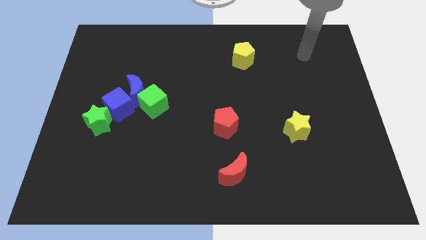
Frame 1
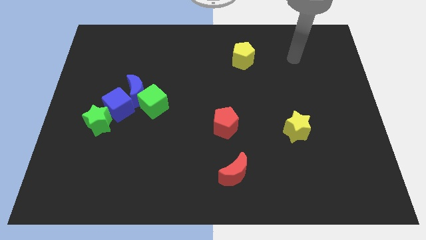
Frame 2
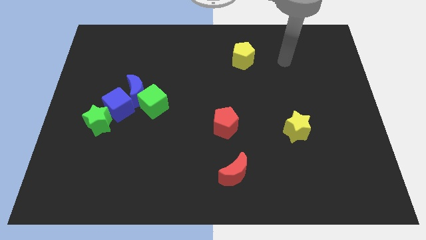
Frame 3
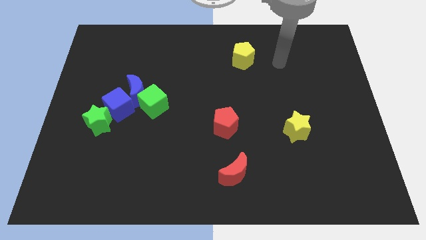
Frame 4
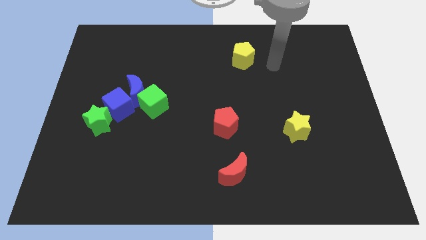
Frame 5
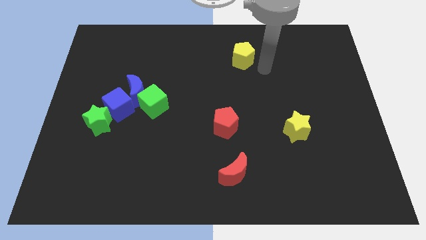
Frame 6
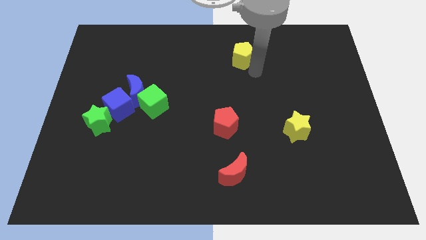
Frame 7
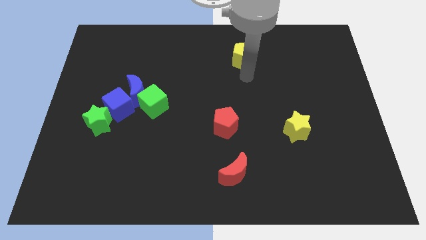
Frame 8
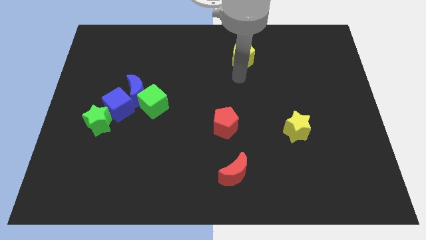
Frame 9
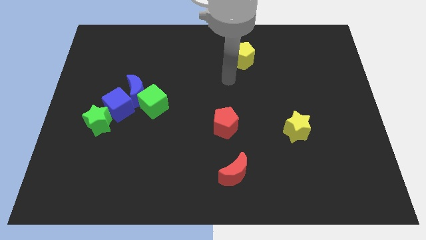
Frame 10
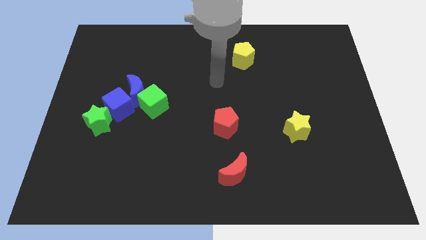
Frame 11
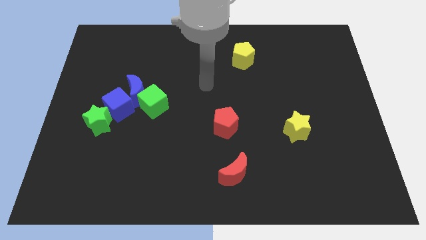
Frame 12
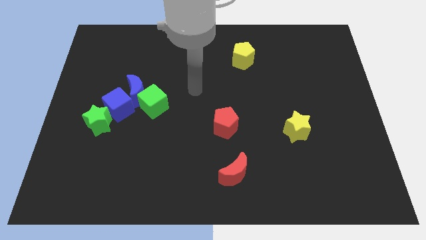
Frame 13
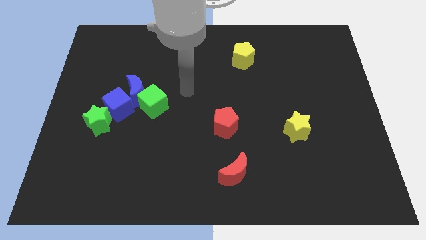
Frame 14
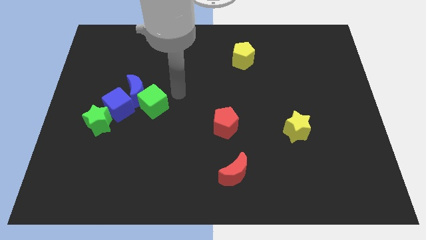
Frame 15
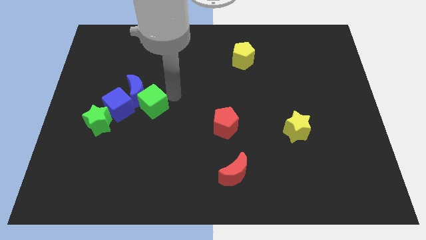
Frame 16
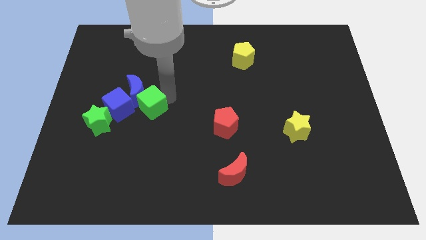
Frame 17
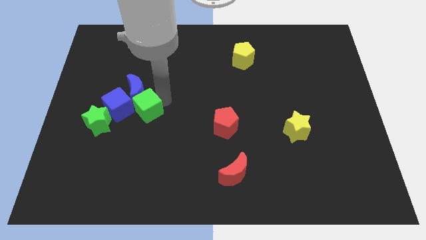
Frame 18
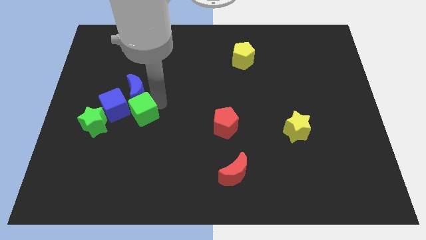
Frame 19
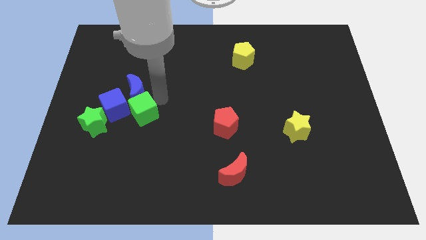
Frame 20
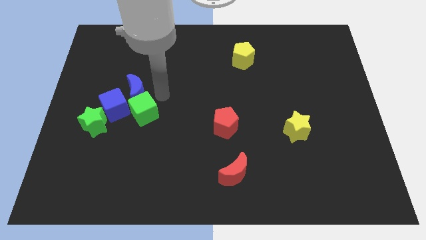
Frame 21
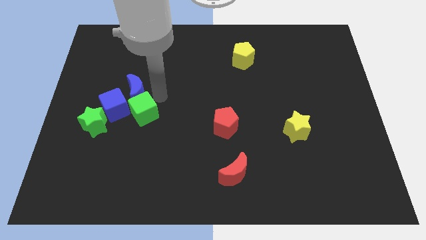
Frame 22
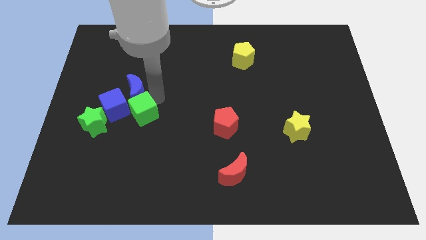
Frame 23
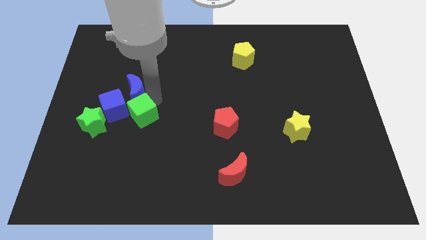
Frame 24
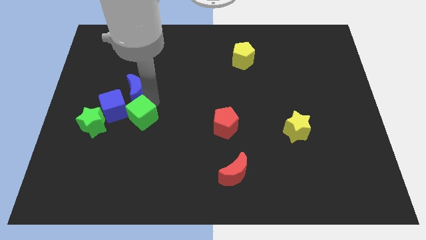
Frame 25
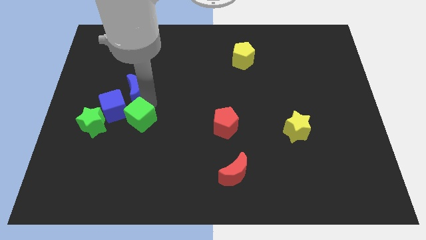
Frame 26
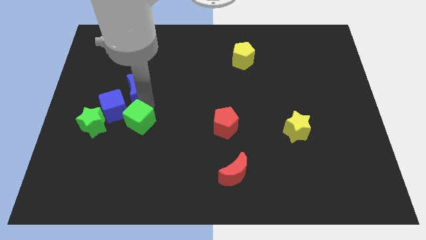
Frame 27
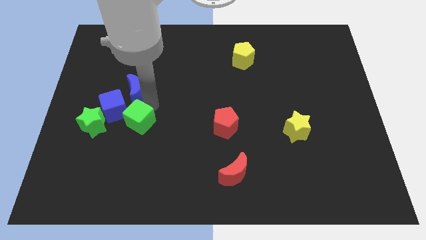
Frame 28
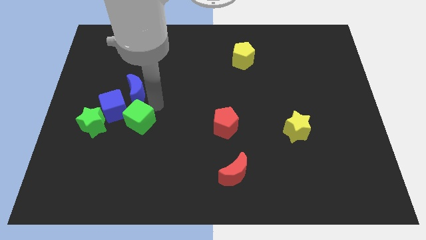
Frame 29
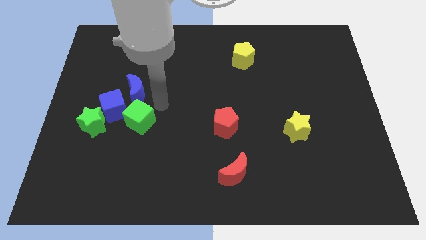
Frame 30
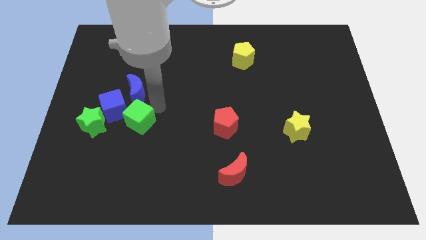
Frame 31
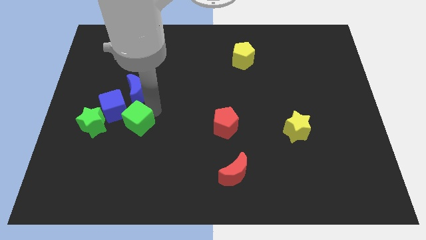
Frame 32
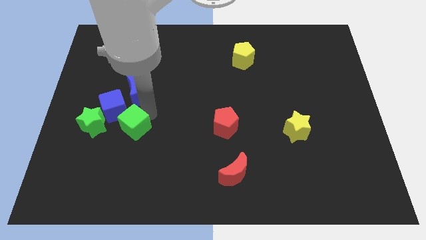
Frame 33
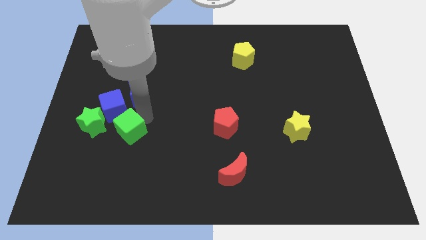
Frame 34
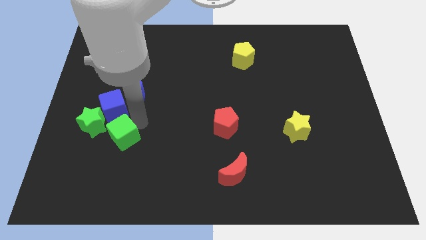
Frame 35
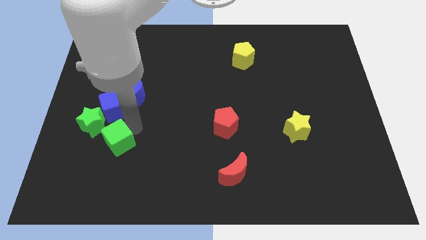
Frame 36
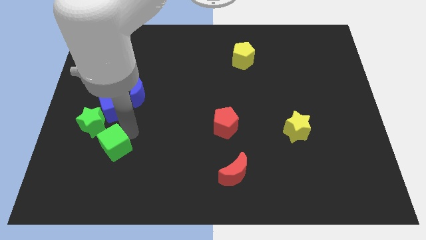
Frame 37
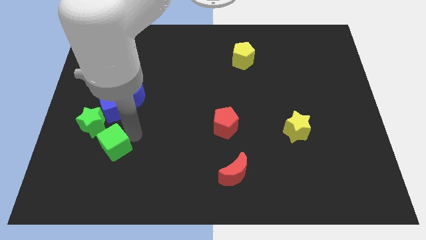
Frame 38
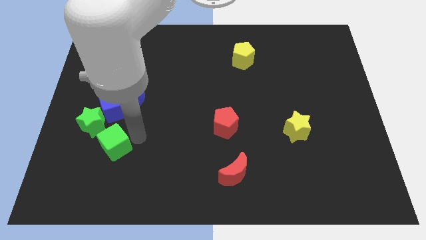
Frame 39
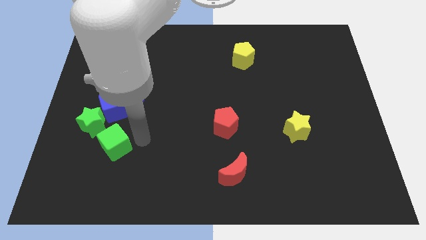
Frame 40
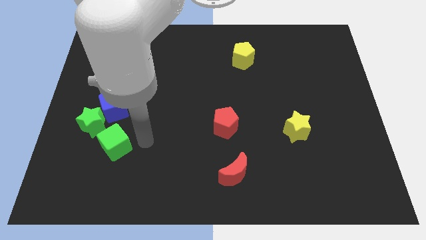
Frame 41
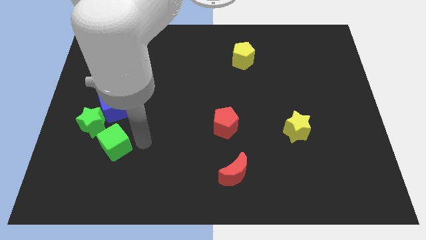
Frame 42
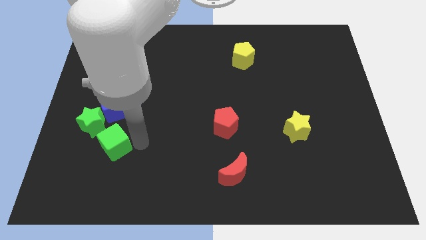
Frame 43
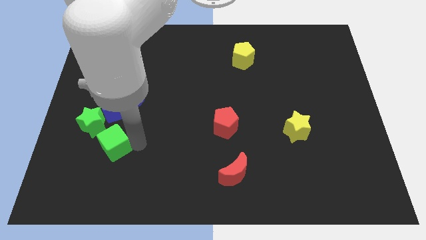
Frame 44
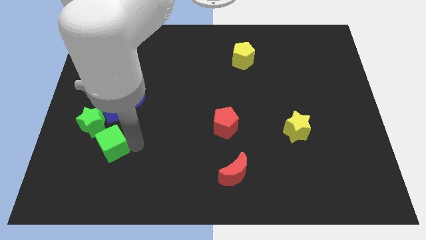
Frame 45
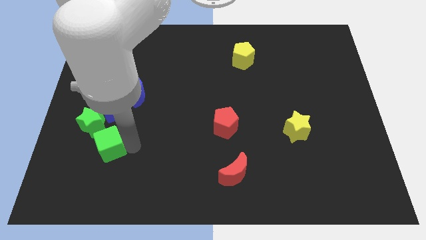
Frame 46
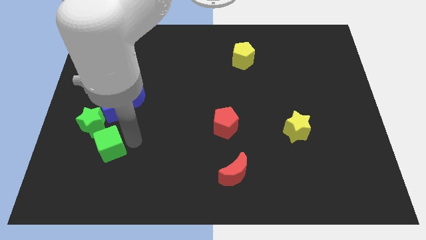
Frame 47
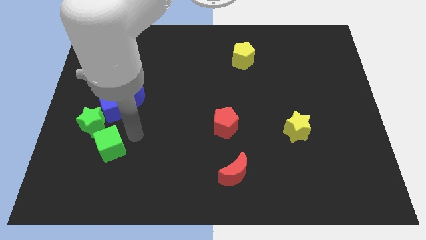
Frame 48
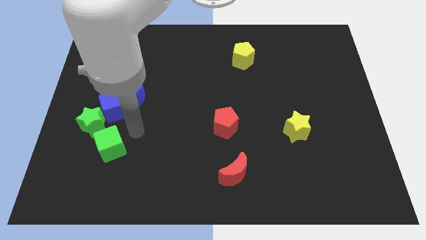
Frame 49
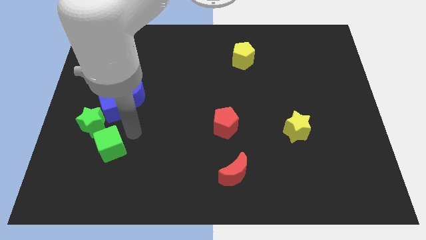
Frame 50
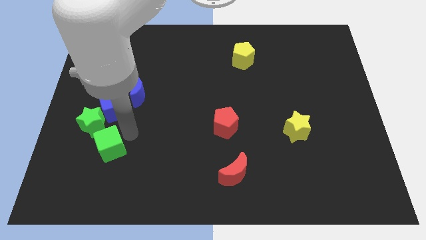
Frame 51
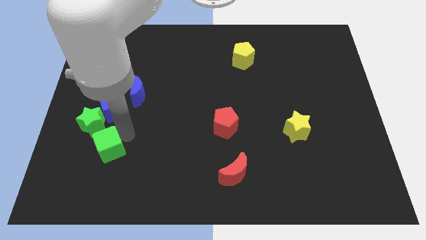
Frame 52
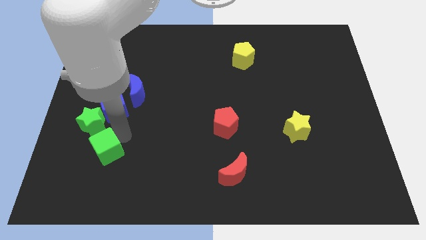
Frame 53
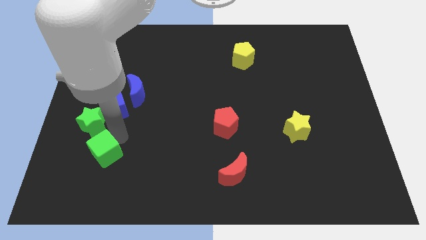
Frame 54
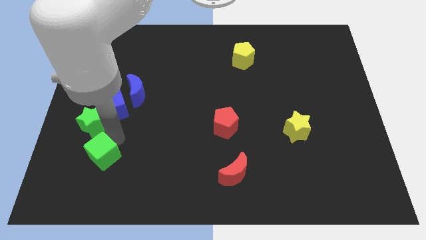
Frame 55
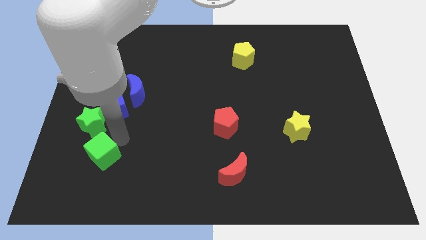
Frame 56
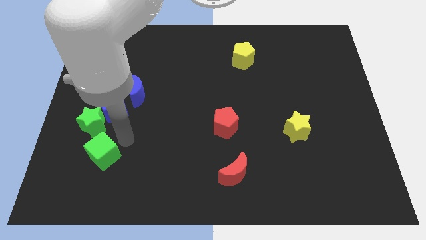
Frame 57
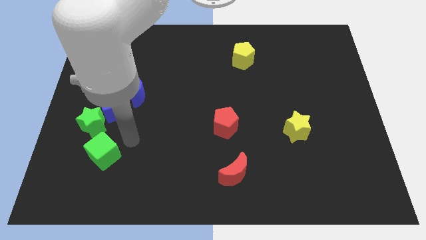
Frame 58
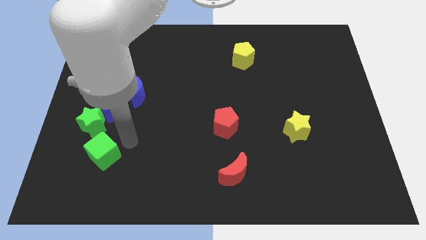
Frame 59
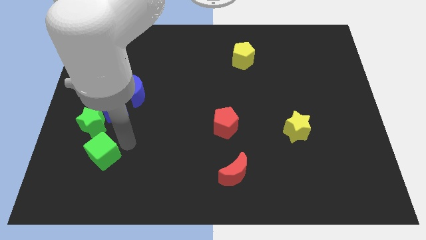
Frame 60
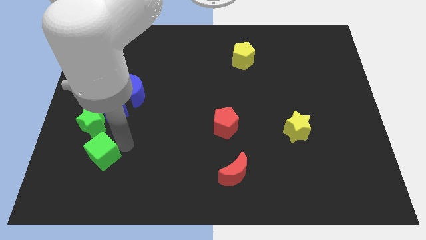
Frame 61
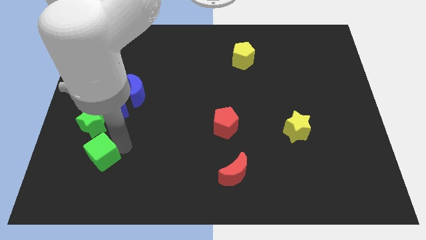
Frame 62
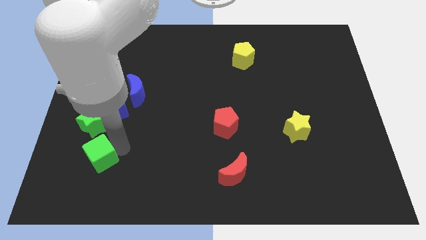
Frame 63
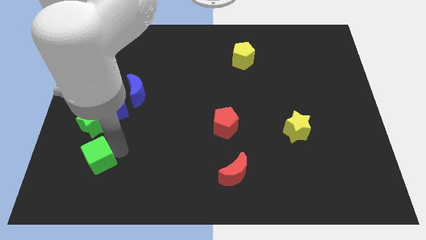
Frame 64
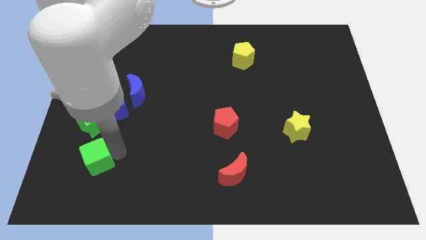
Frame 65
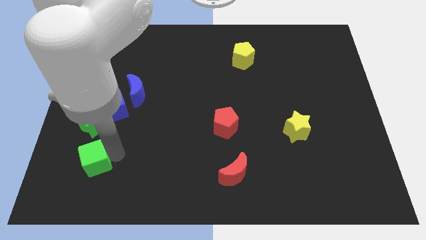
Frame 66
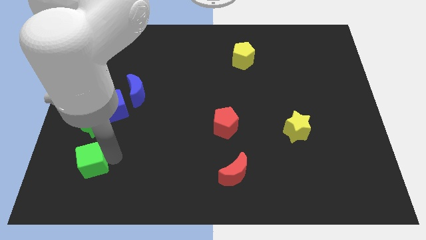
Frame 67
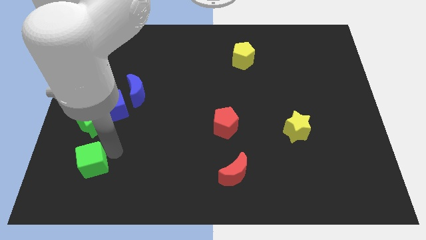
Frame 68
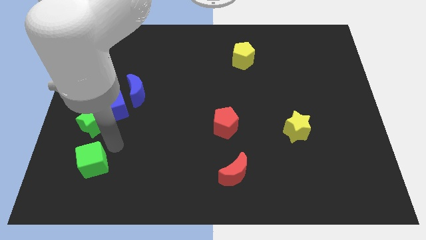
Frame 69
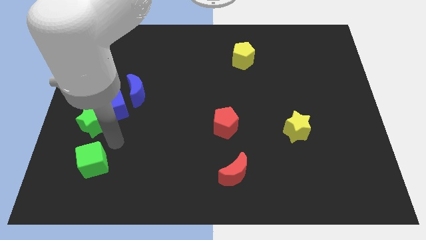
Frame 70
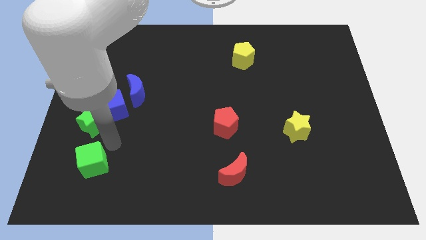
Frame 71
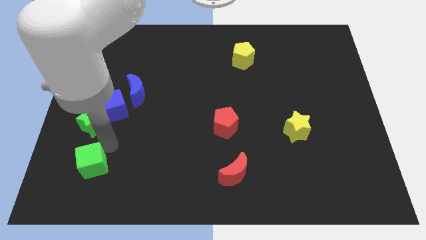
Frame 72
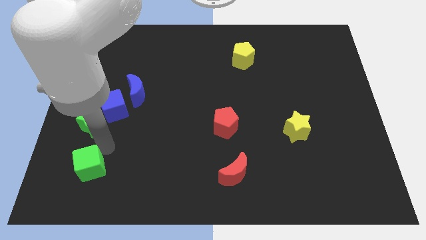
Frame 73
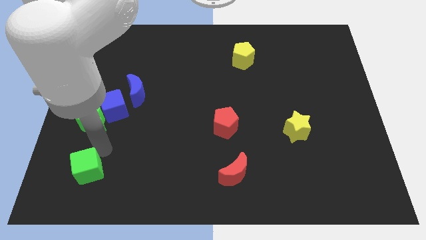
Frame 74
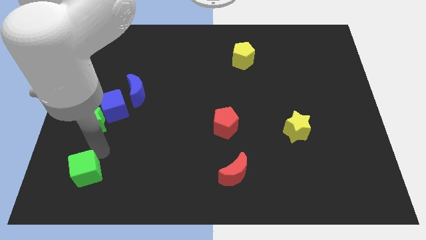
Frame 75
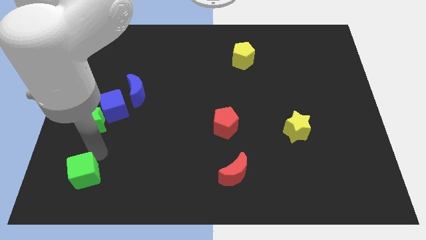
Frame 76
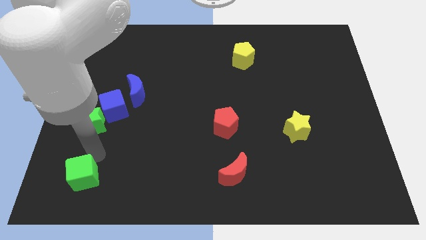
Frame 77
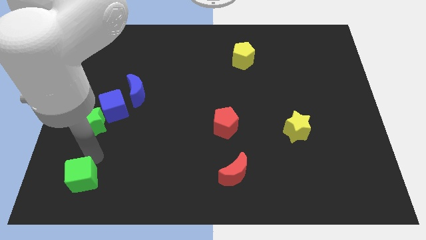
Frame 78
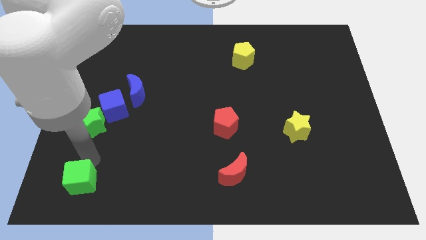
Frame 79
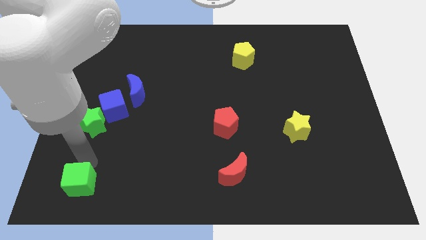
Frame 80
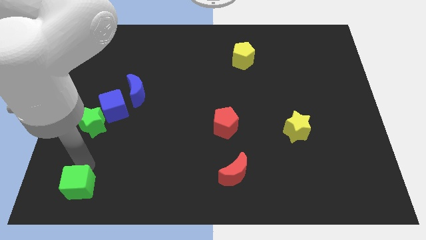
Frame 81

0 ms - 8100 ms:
put the green cube to the bottom left
